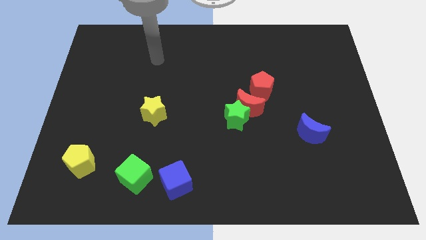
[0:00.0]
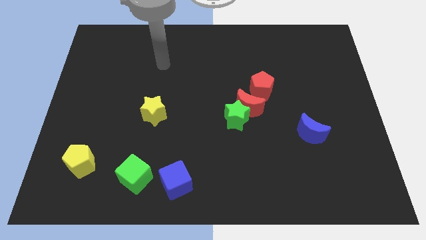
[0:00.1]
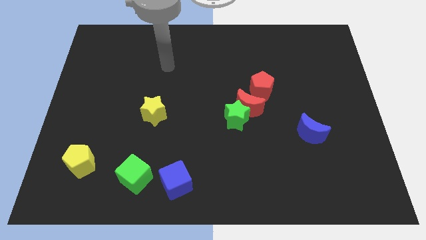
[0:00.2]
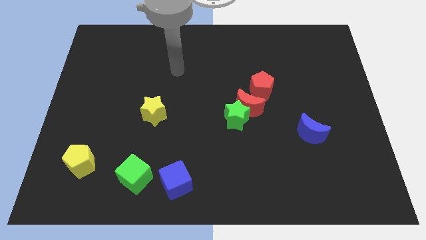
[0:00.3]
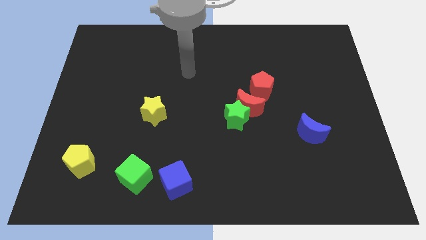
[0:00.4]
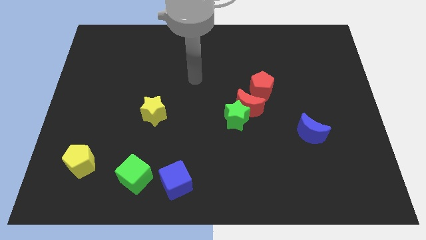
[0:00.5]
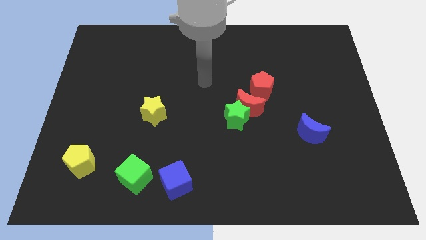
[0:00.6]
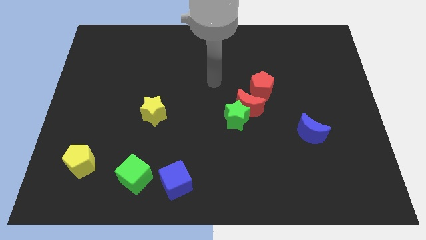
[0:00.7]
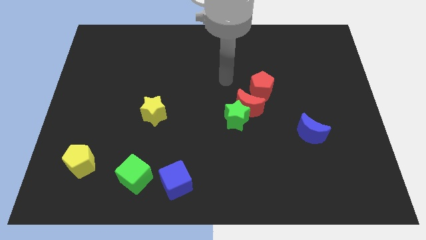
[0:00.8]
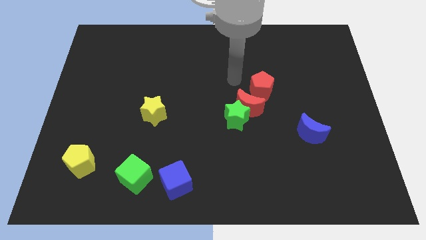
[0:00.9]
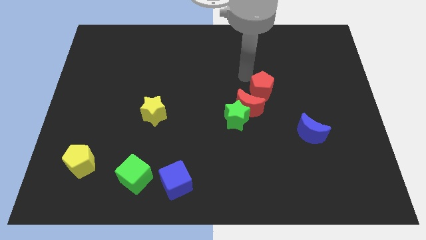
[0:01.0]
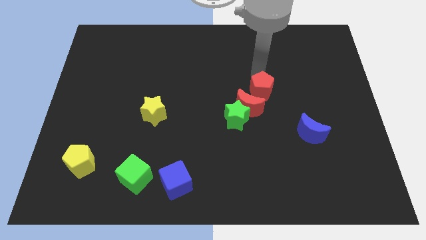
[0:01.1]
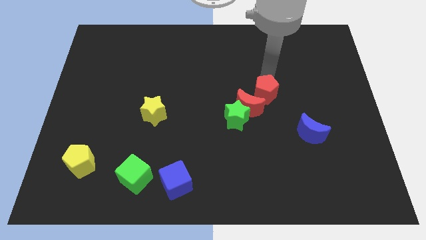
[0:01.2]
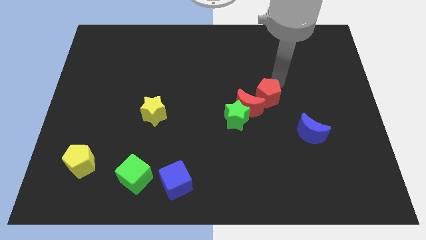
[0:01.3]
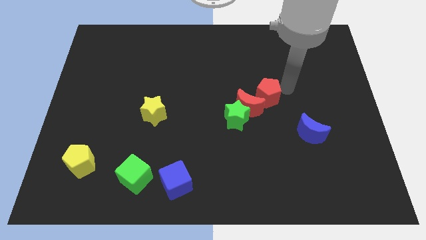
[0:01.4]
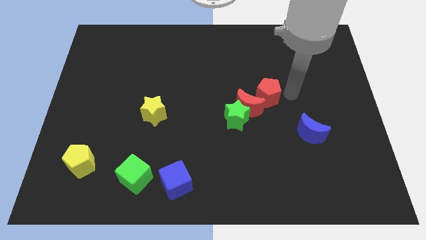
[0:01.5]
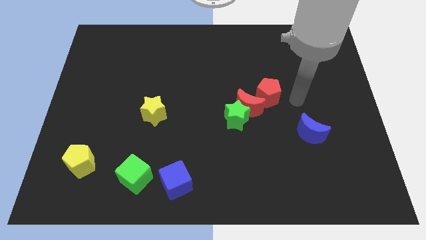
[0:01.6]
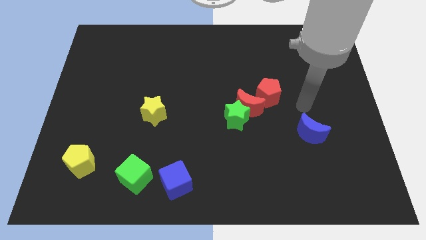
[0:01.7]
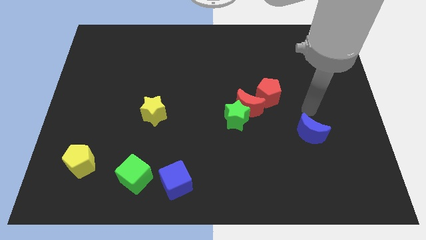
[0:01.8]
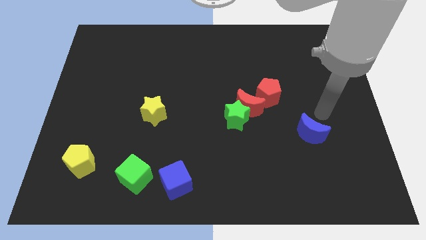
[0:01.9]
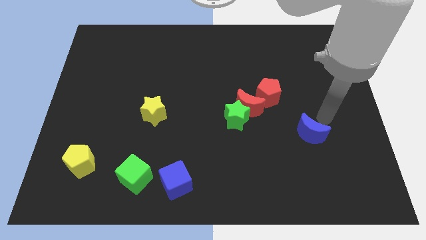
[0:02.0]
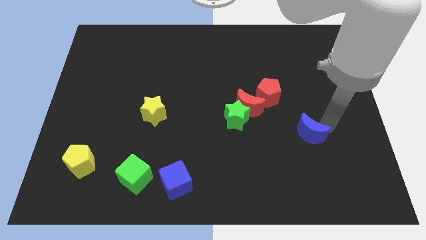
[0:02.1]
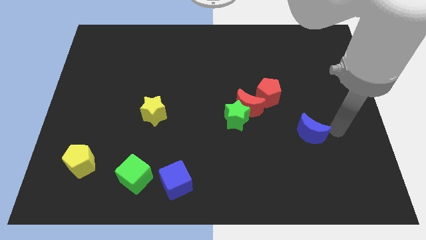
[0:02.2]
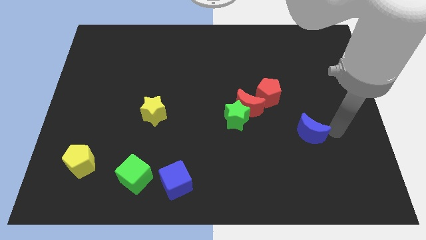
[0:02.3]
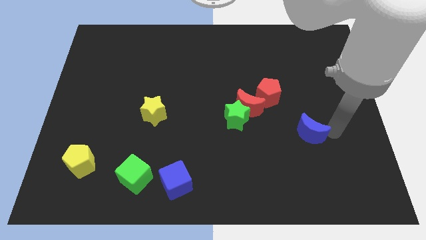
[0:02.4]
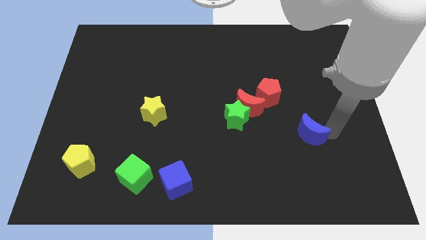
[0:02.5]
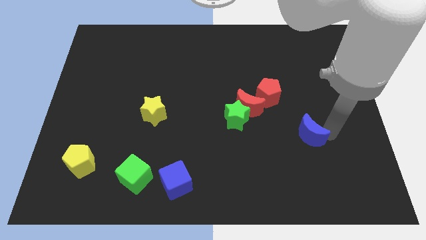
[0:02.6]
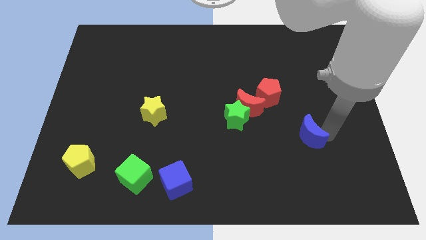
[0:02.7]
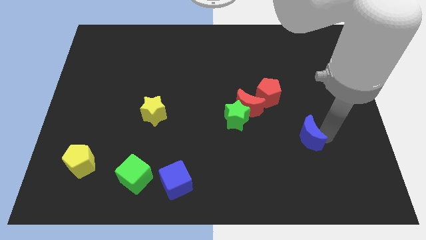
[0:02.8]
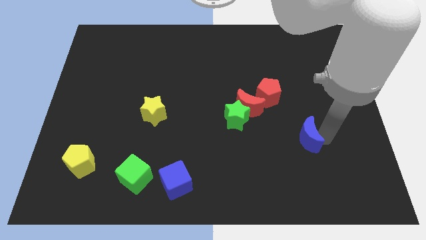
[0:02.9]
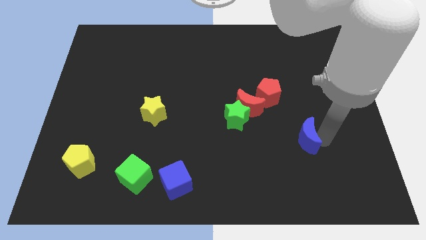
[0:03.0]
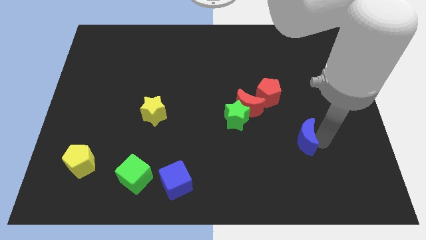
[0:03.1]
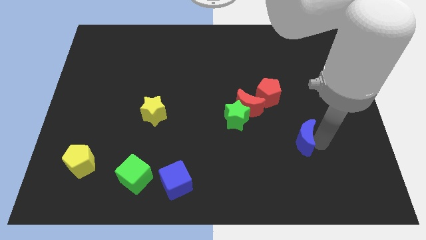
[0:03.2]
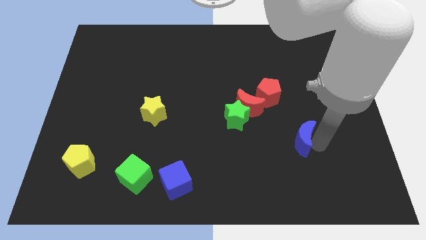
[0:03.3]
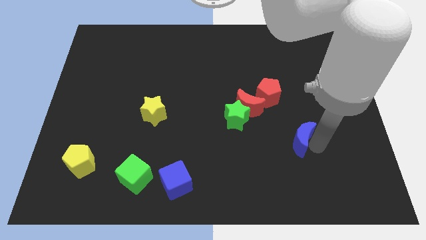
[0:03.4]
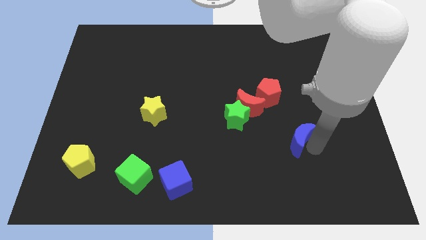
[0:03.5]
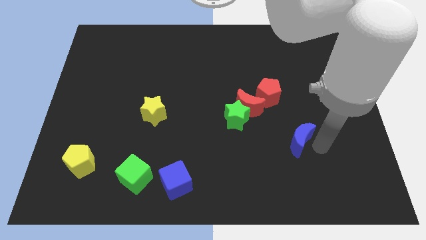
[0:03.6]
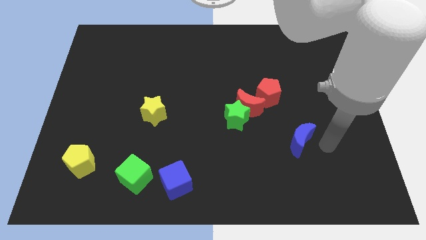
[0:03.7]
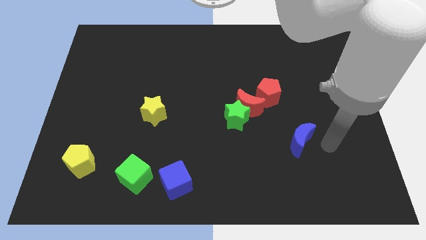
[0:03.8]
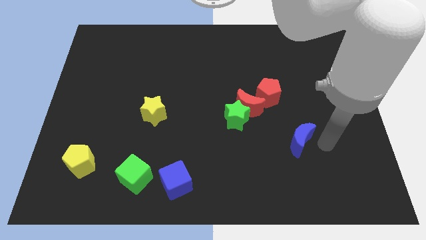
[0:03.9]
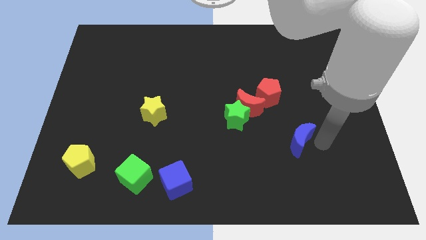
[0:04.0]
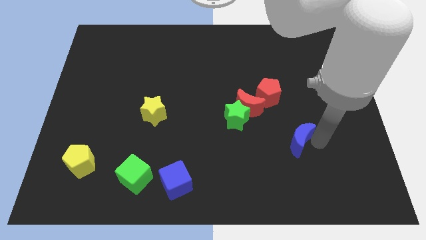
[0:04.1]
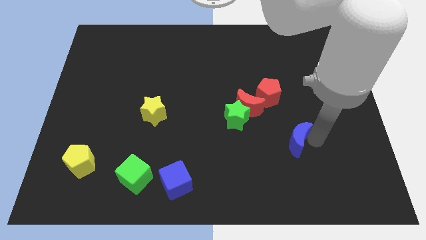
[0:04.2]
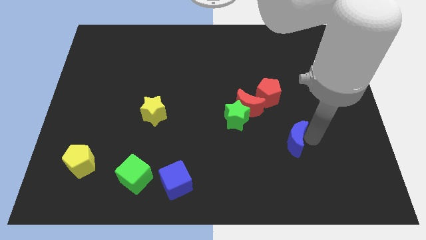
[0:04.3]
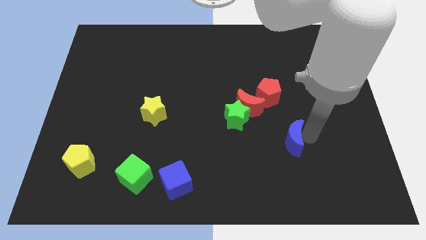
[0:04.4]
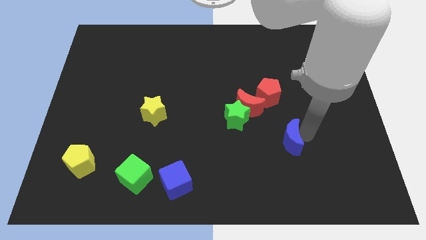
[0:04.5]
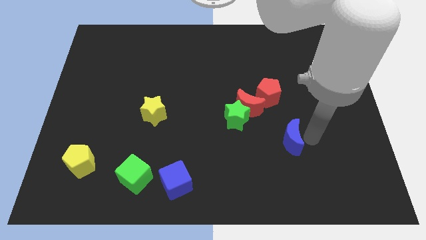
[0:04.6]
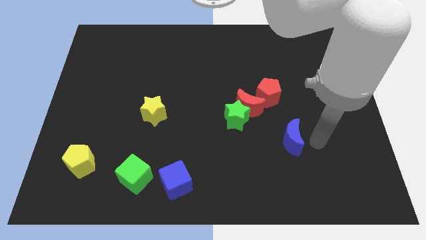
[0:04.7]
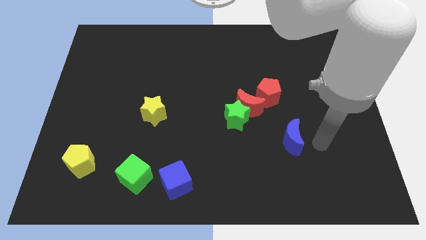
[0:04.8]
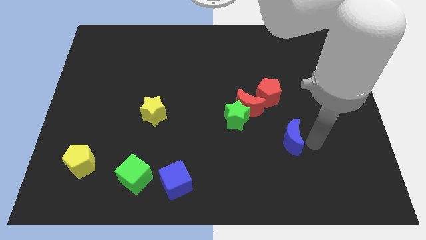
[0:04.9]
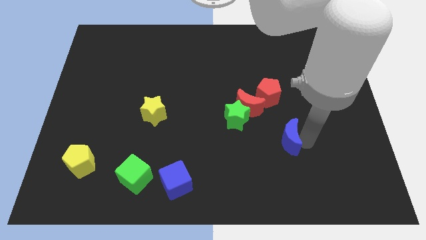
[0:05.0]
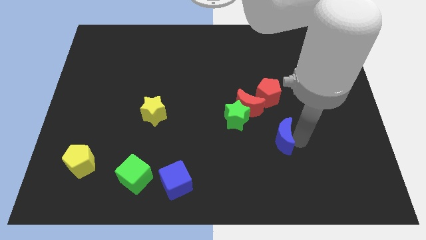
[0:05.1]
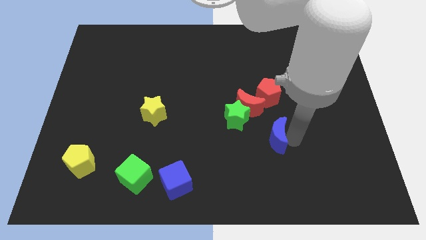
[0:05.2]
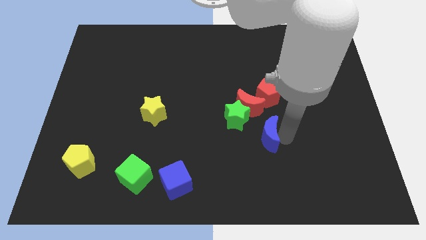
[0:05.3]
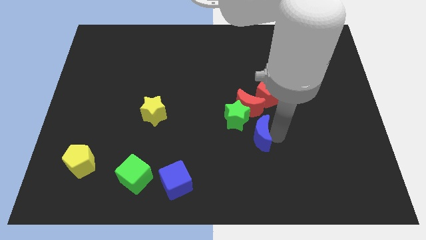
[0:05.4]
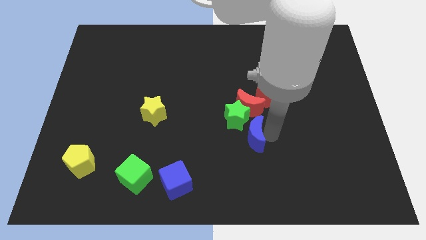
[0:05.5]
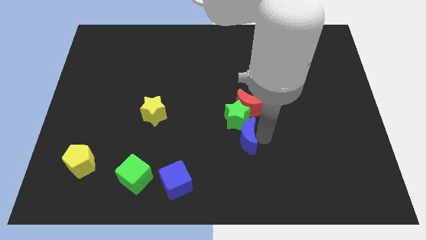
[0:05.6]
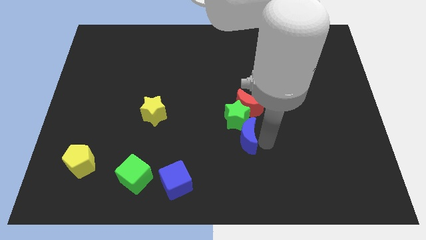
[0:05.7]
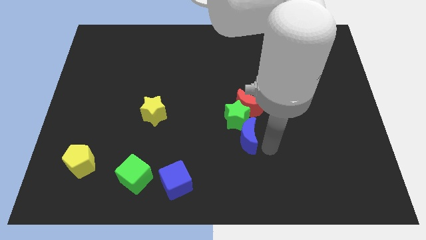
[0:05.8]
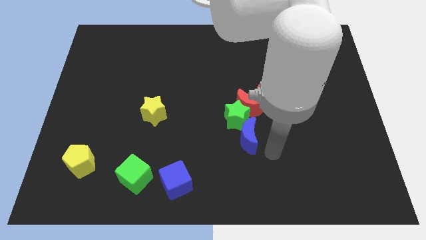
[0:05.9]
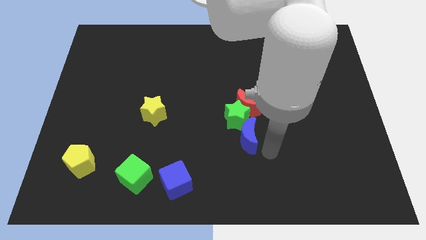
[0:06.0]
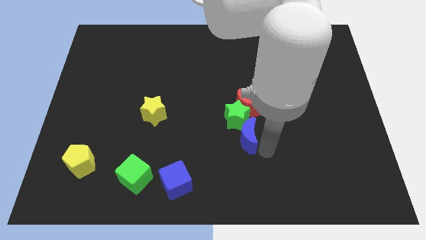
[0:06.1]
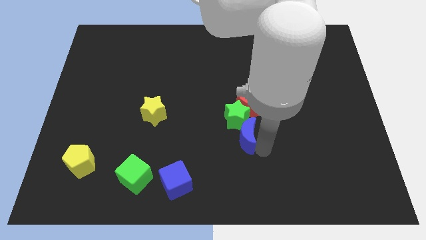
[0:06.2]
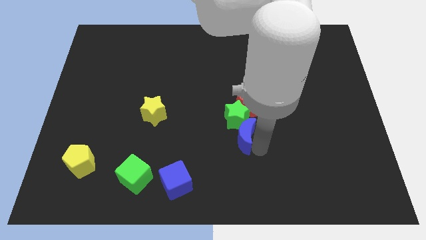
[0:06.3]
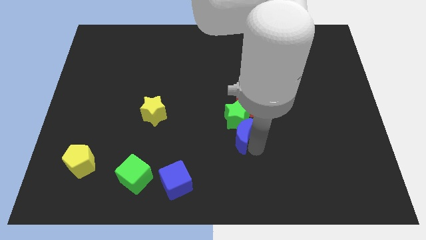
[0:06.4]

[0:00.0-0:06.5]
slide the blue moon to the bottom left of the red moon

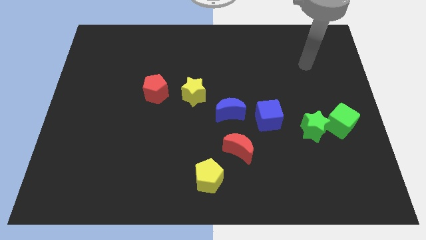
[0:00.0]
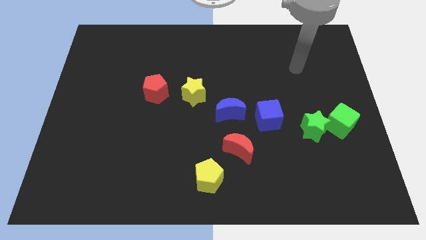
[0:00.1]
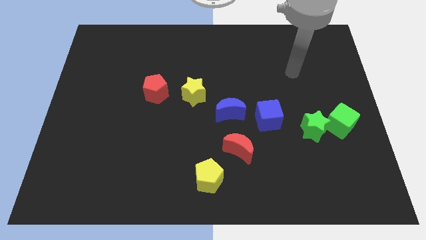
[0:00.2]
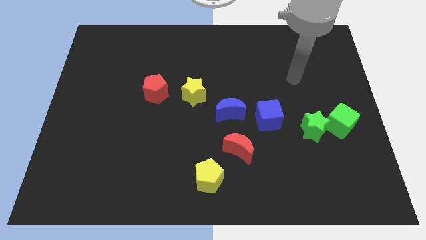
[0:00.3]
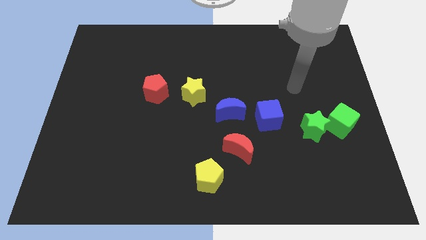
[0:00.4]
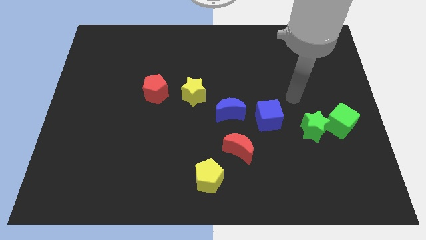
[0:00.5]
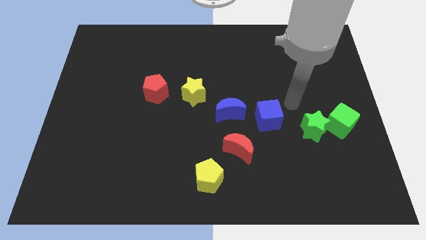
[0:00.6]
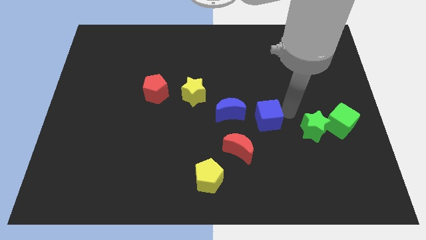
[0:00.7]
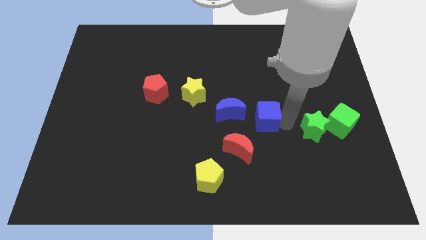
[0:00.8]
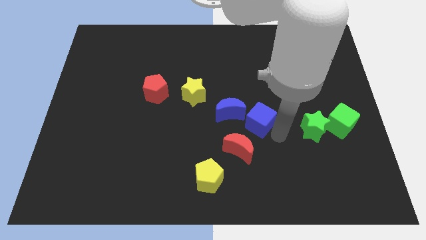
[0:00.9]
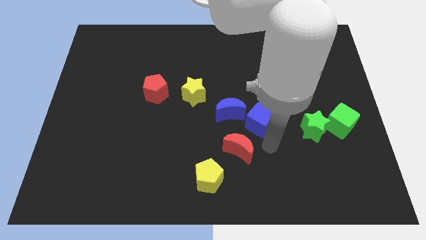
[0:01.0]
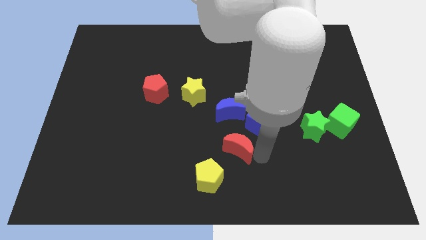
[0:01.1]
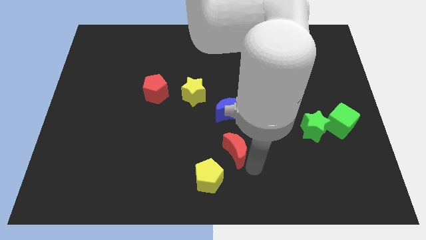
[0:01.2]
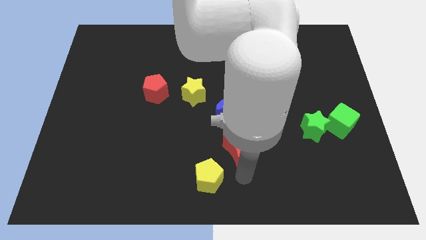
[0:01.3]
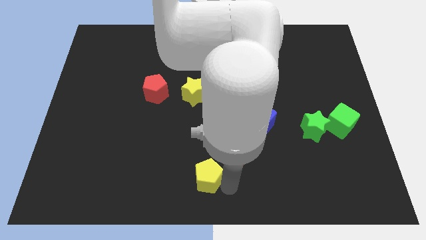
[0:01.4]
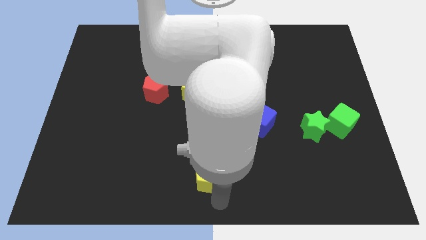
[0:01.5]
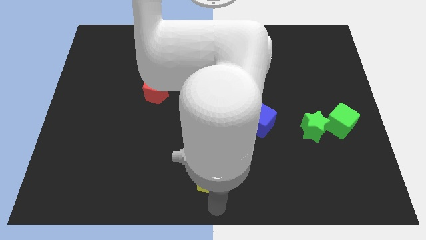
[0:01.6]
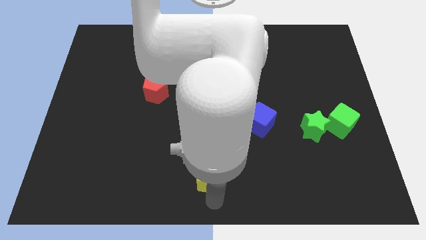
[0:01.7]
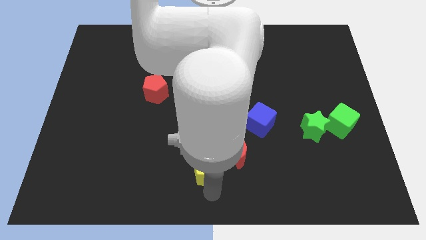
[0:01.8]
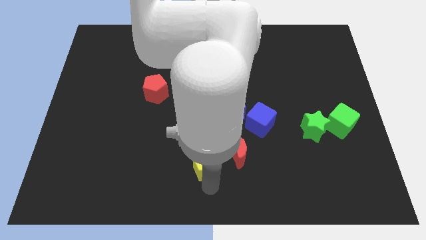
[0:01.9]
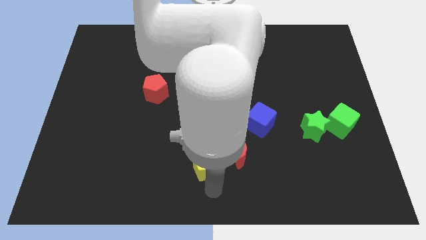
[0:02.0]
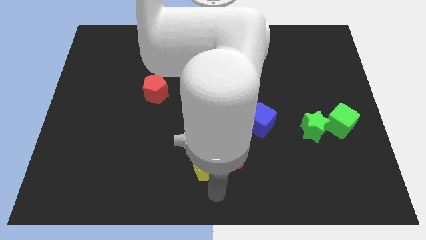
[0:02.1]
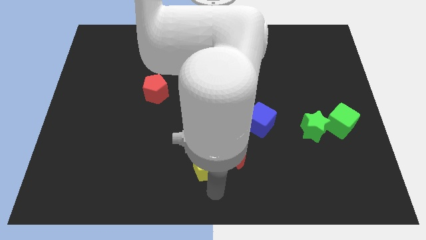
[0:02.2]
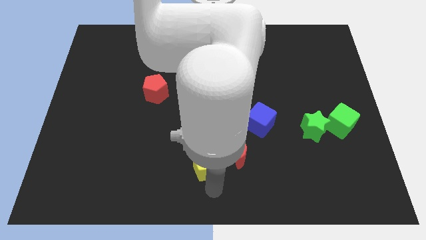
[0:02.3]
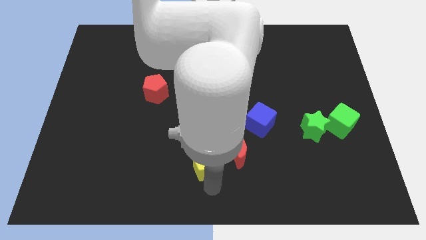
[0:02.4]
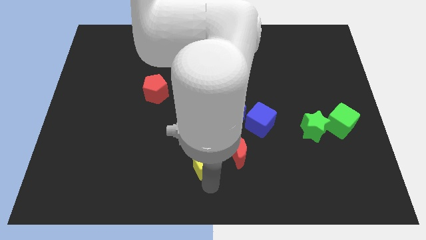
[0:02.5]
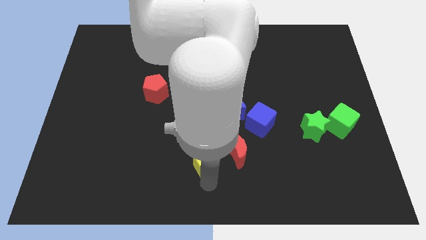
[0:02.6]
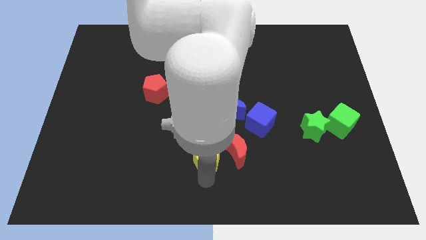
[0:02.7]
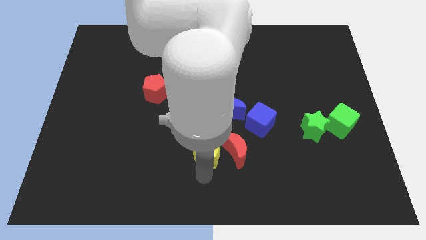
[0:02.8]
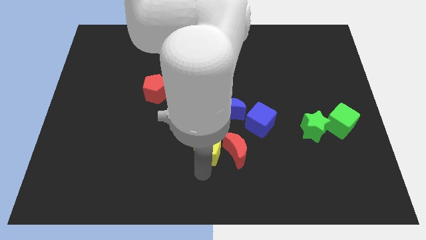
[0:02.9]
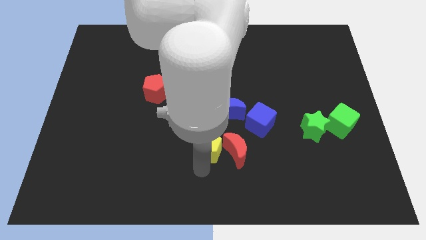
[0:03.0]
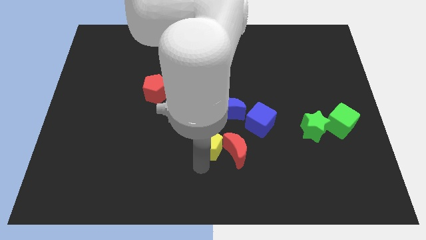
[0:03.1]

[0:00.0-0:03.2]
push the yellow pentagon below the yellow star
